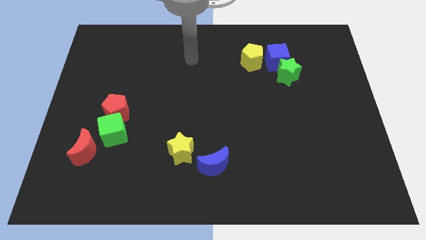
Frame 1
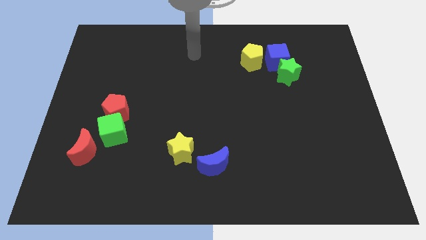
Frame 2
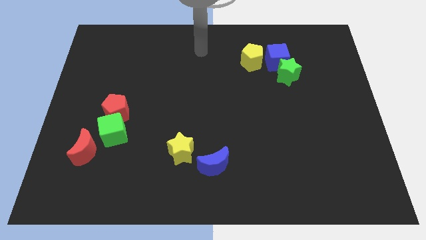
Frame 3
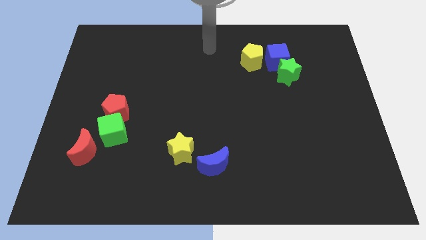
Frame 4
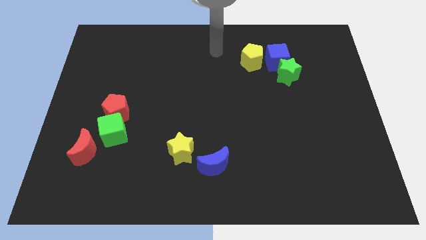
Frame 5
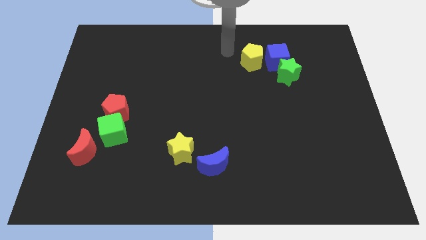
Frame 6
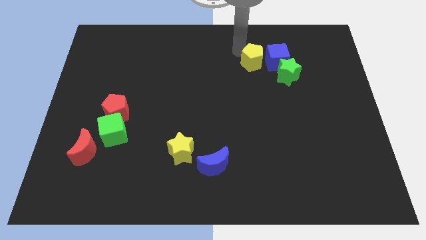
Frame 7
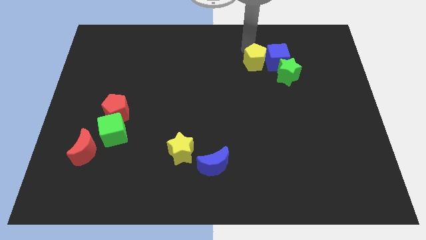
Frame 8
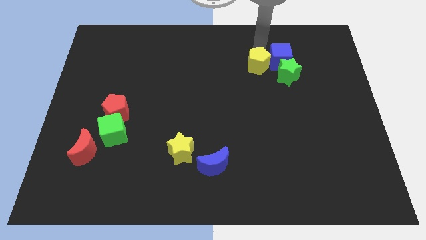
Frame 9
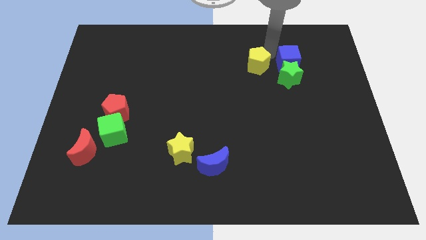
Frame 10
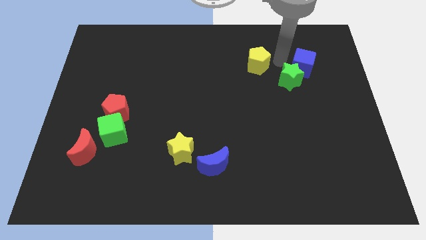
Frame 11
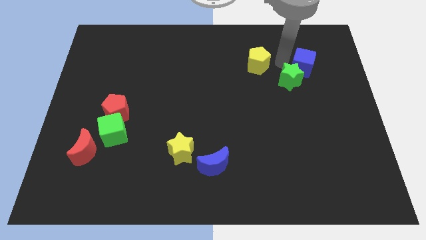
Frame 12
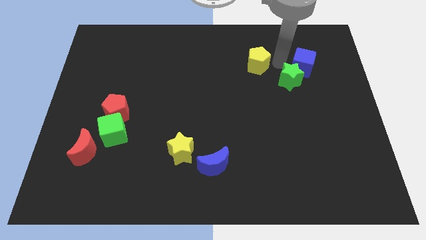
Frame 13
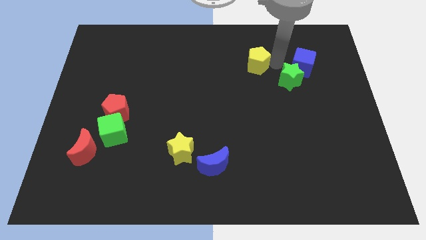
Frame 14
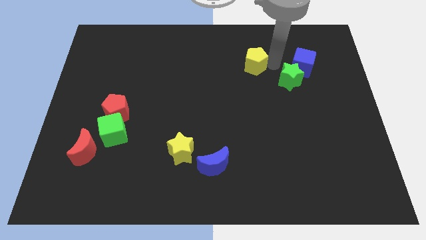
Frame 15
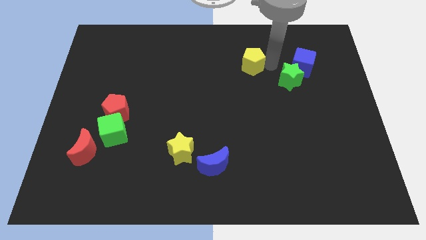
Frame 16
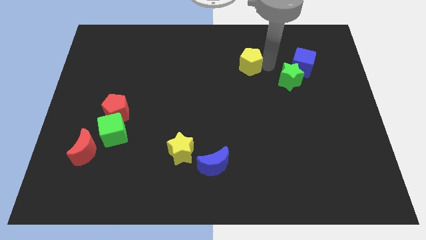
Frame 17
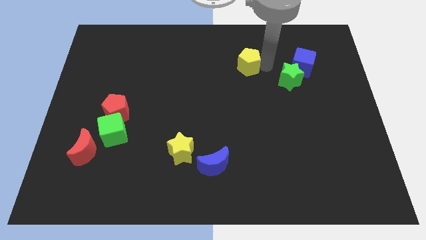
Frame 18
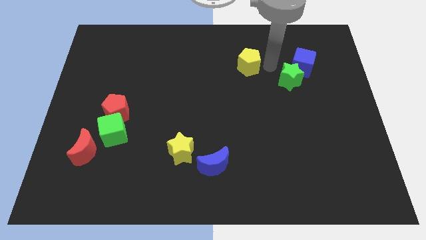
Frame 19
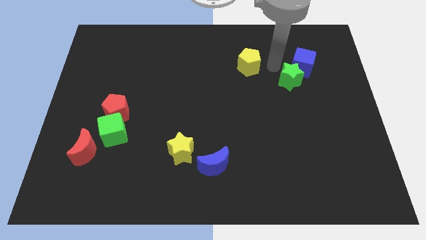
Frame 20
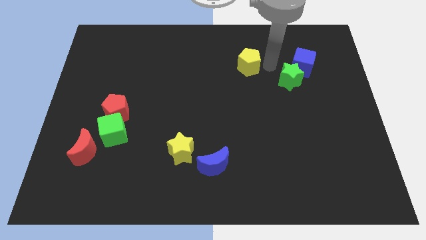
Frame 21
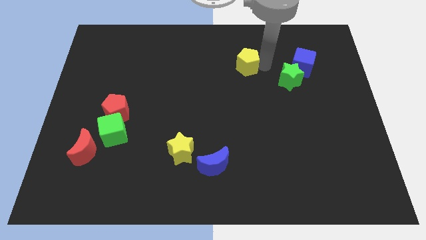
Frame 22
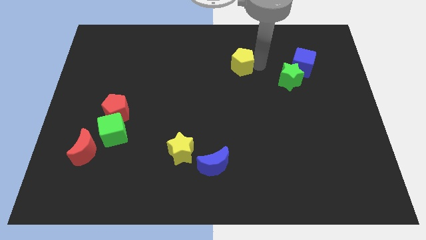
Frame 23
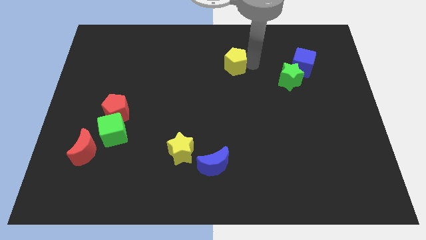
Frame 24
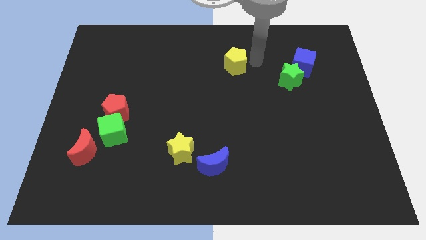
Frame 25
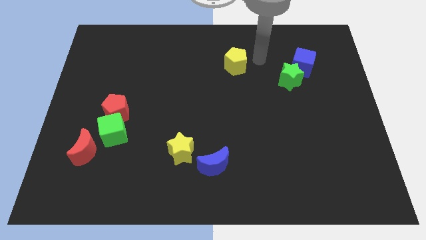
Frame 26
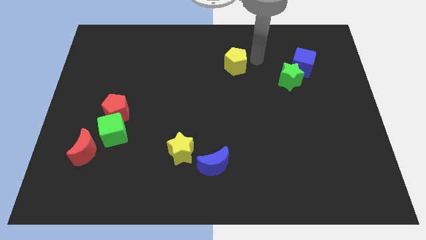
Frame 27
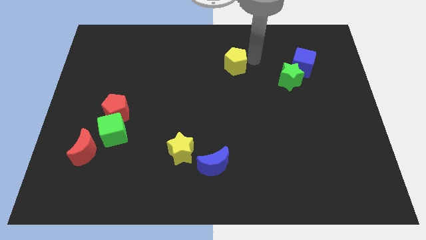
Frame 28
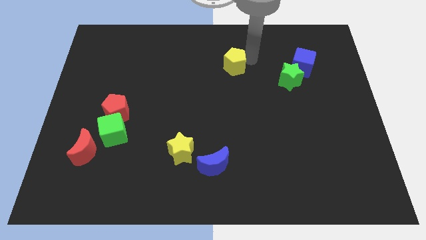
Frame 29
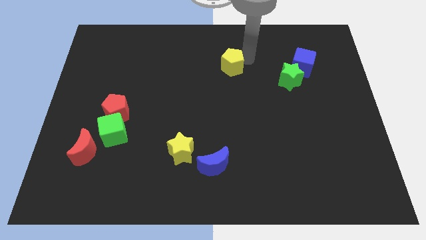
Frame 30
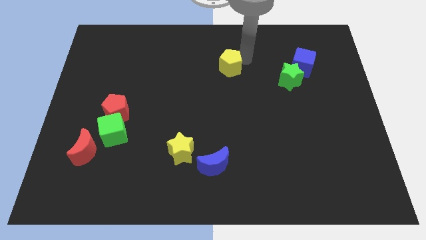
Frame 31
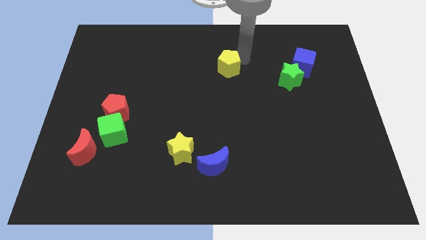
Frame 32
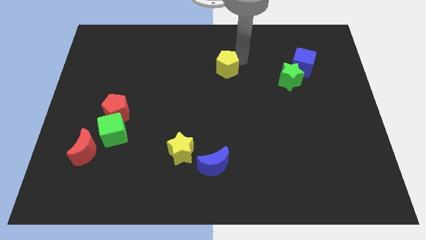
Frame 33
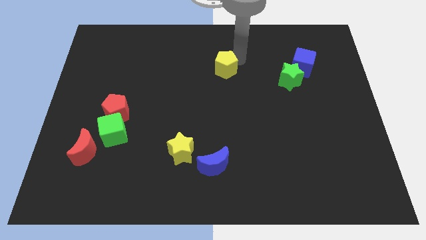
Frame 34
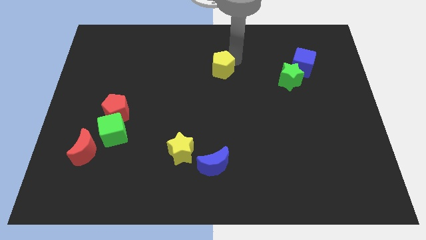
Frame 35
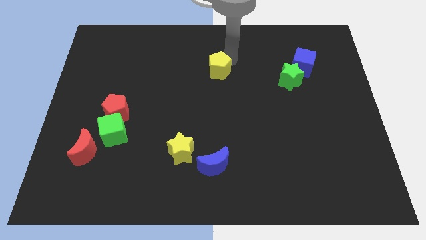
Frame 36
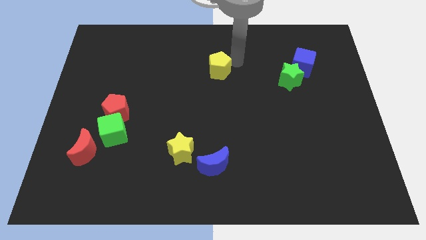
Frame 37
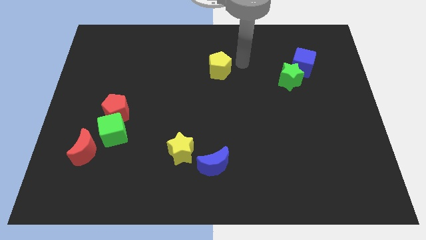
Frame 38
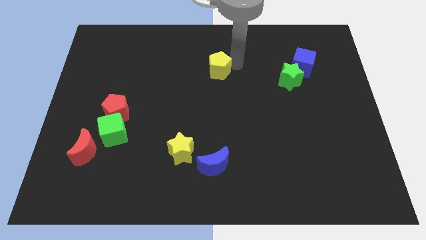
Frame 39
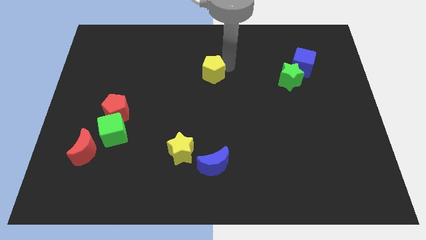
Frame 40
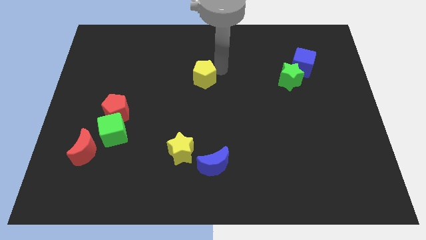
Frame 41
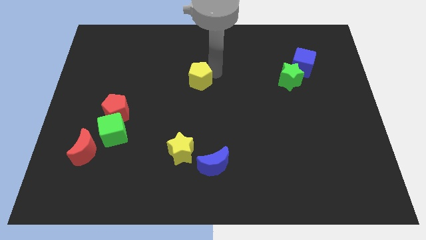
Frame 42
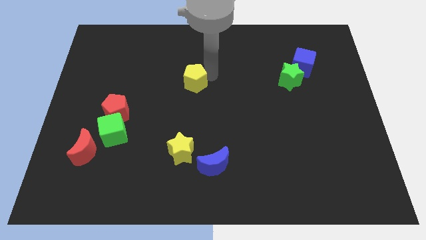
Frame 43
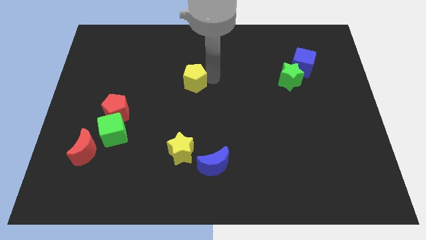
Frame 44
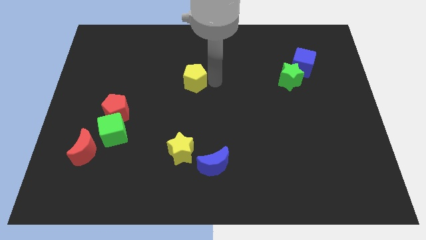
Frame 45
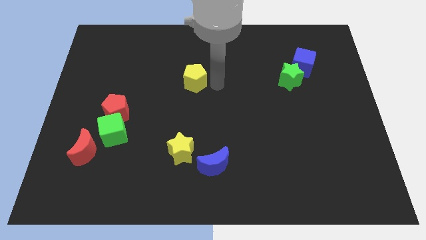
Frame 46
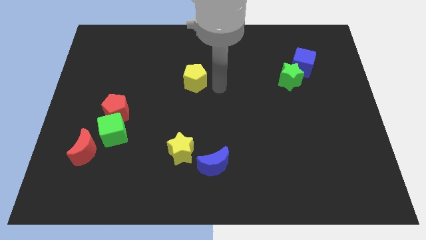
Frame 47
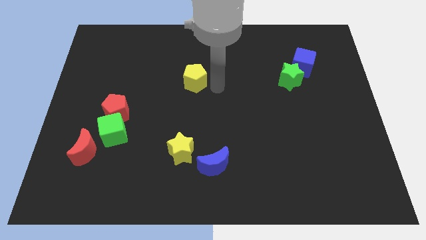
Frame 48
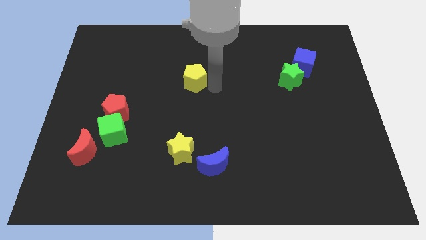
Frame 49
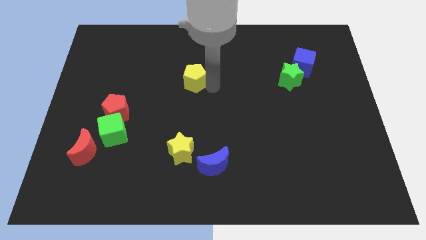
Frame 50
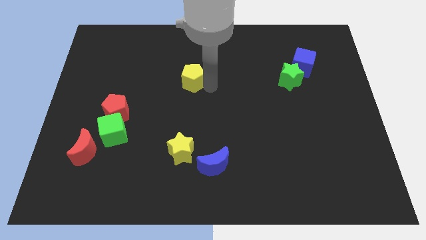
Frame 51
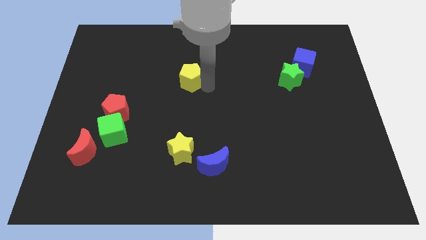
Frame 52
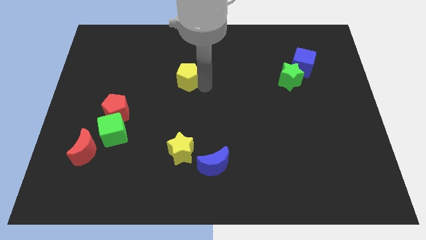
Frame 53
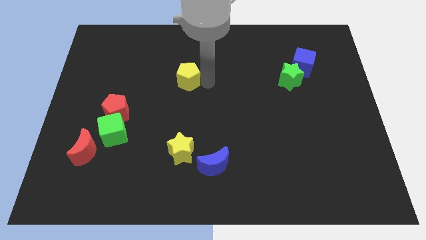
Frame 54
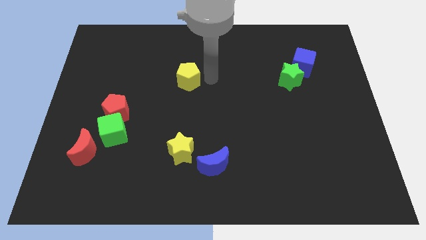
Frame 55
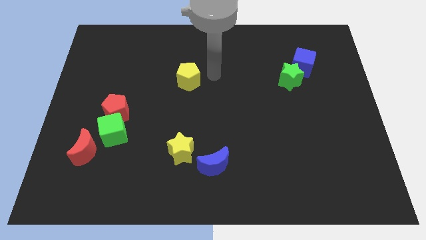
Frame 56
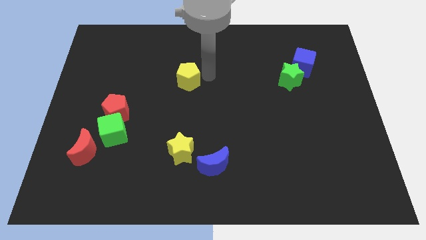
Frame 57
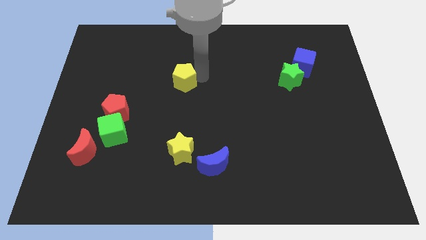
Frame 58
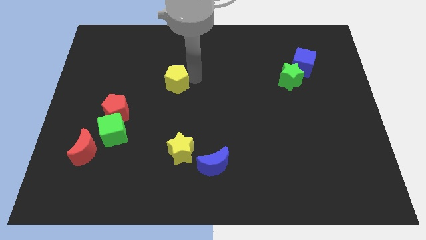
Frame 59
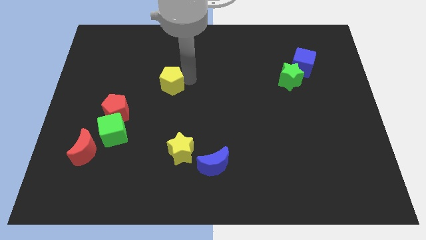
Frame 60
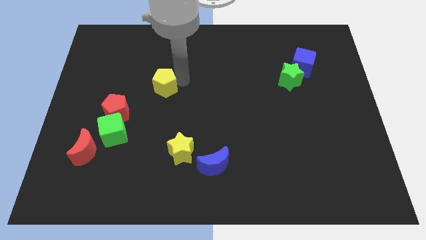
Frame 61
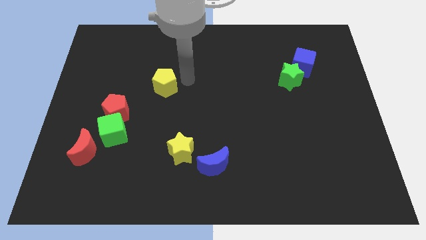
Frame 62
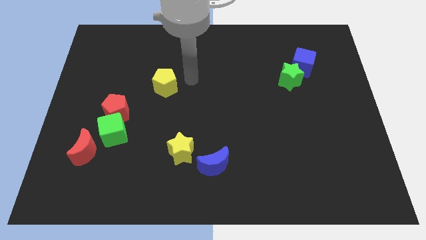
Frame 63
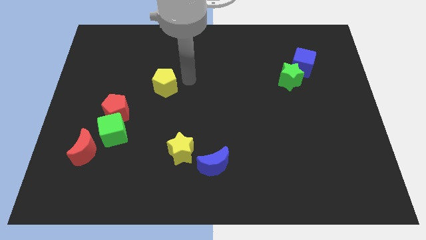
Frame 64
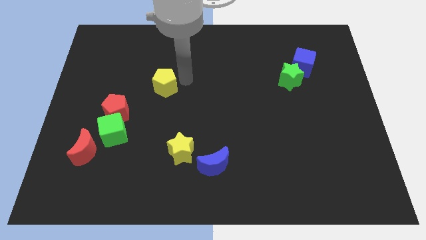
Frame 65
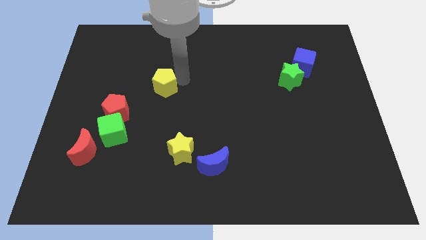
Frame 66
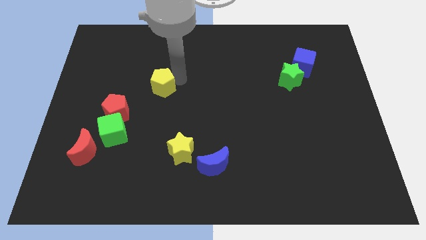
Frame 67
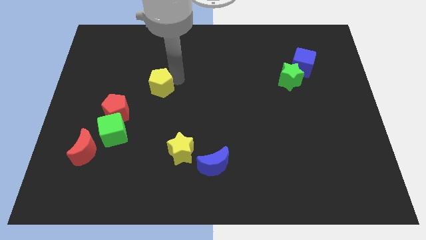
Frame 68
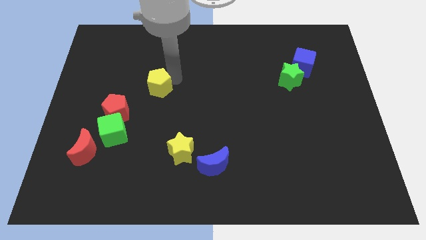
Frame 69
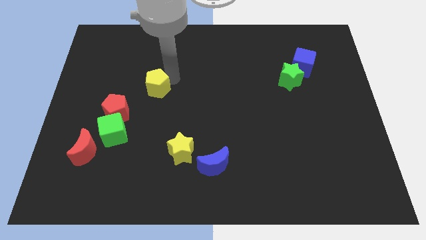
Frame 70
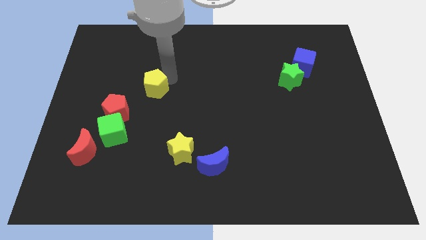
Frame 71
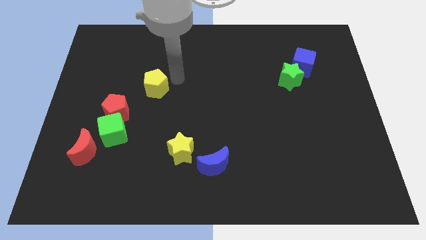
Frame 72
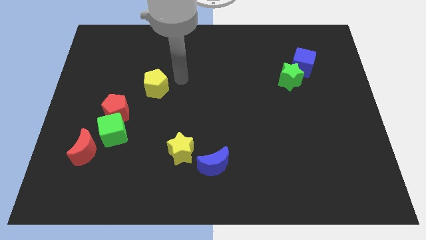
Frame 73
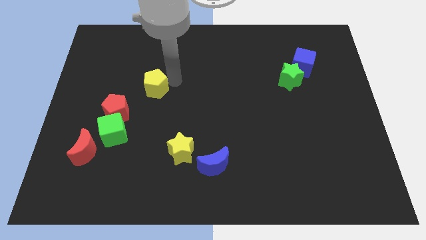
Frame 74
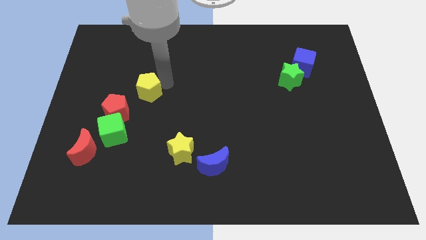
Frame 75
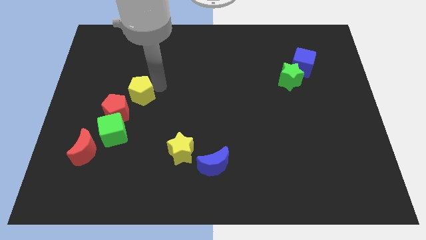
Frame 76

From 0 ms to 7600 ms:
put the yellow pentagon to the top side of the green cube
